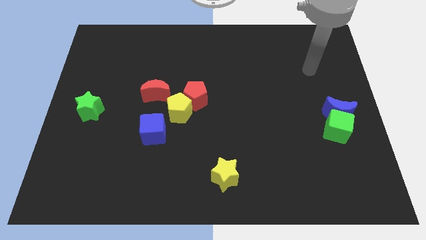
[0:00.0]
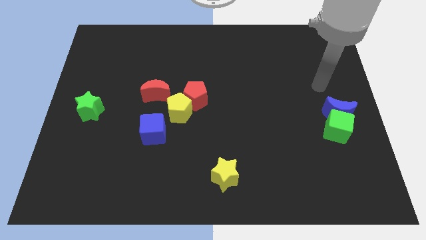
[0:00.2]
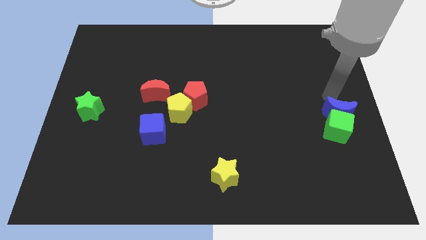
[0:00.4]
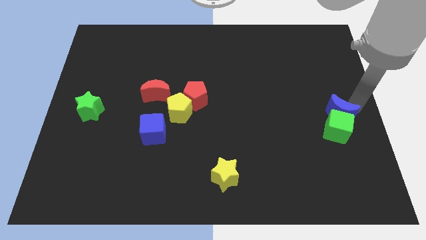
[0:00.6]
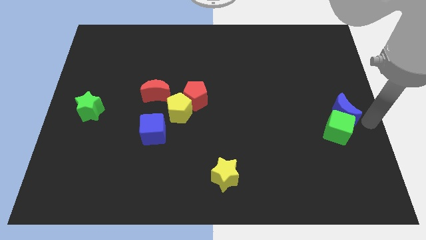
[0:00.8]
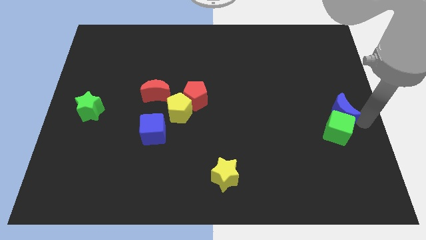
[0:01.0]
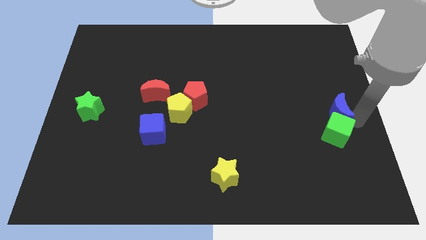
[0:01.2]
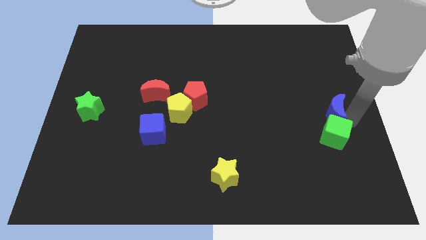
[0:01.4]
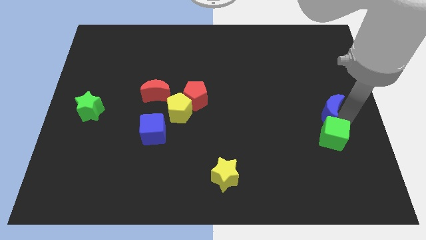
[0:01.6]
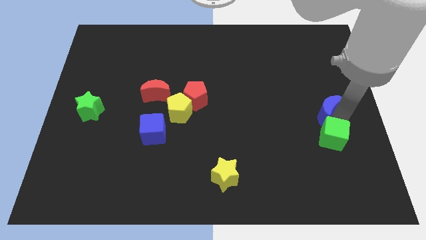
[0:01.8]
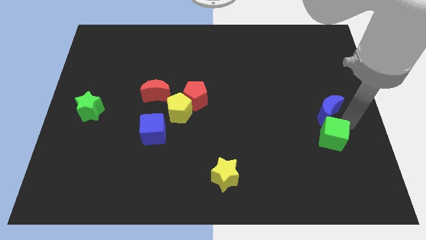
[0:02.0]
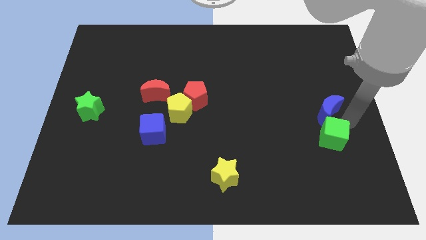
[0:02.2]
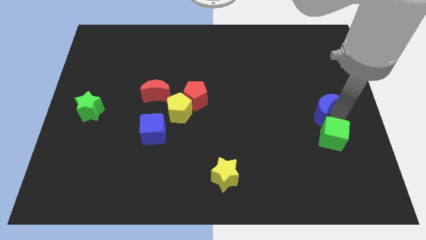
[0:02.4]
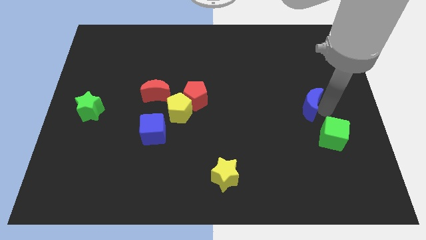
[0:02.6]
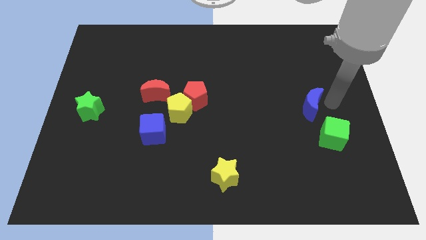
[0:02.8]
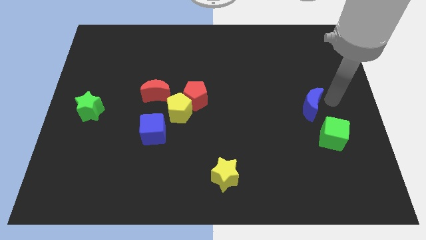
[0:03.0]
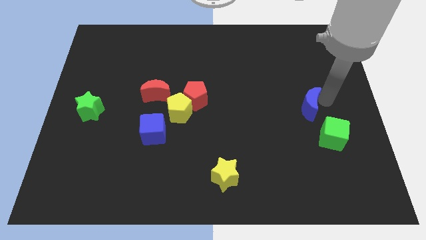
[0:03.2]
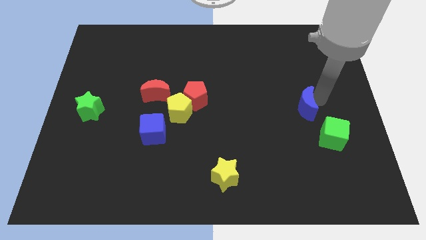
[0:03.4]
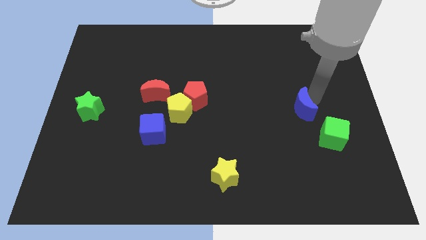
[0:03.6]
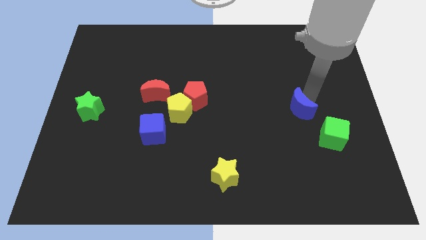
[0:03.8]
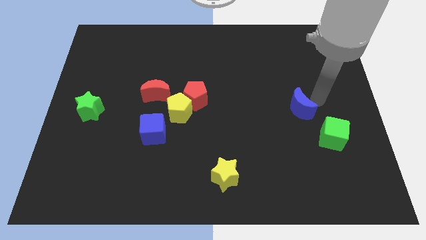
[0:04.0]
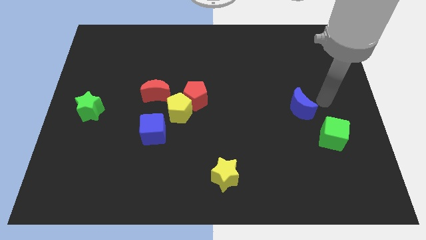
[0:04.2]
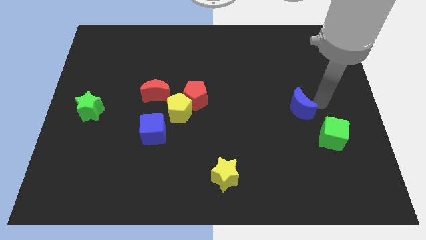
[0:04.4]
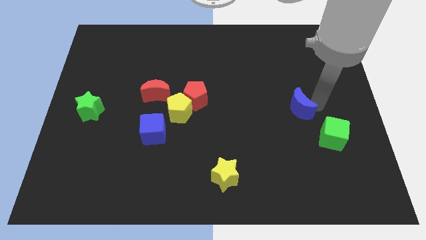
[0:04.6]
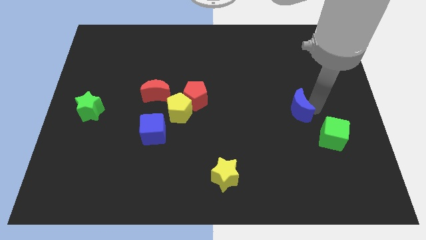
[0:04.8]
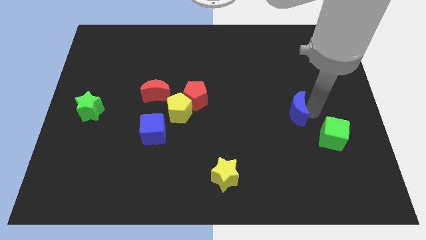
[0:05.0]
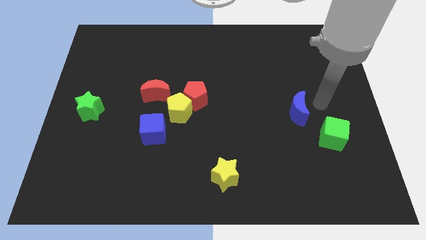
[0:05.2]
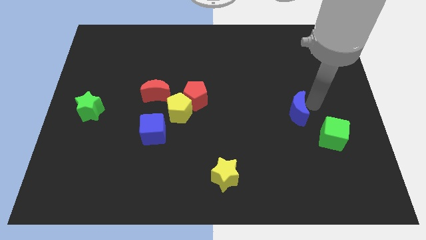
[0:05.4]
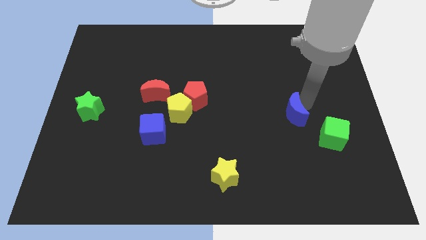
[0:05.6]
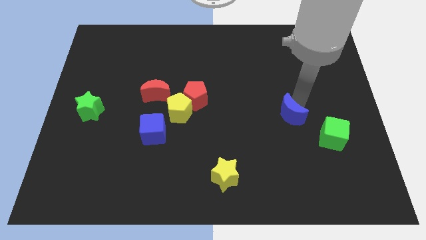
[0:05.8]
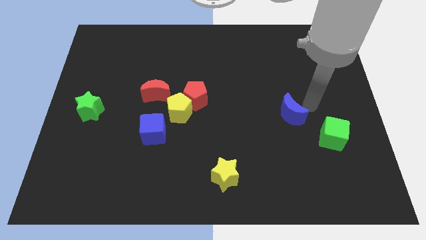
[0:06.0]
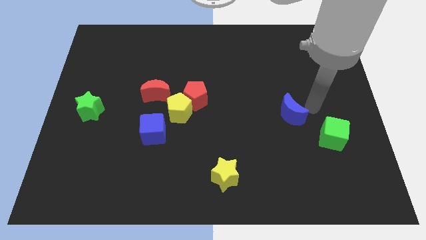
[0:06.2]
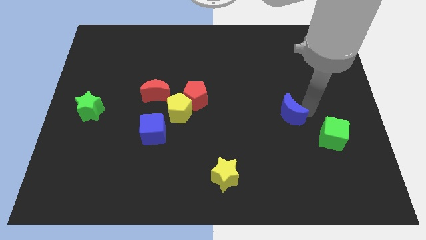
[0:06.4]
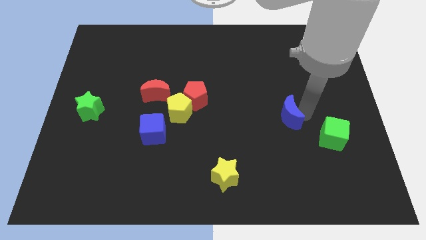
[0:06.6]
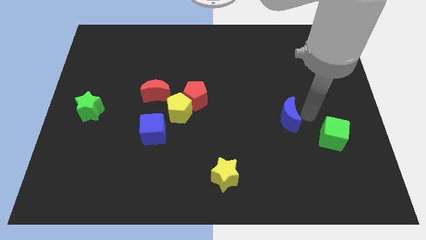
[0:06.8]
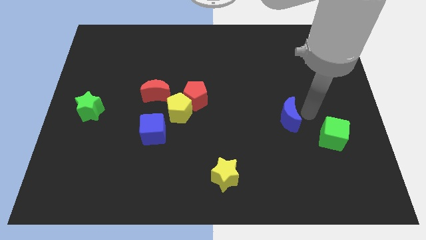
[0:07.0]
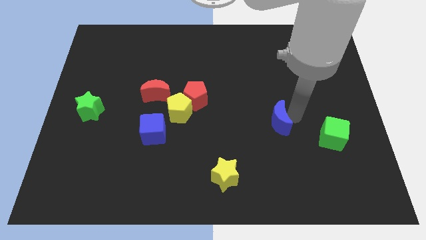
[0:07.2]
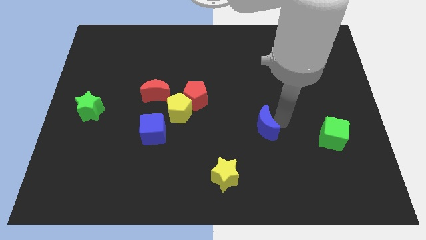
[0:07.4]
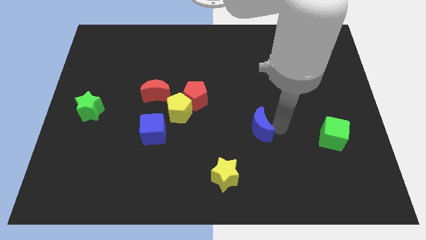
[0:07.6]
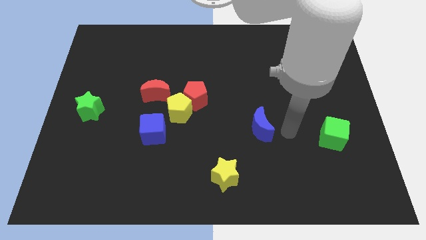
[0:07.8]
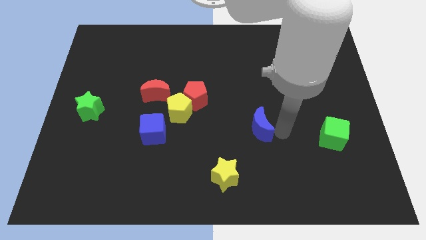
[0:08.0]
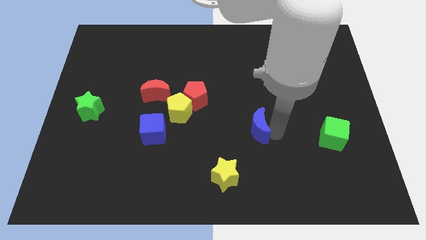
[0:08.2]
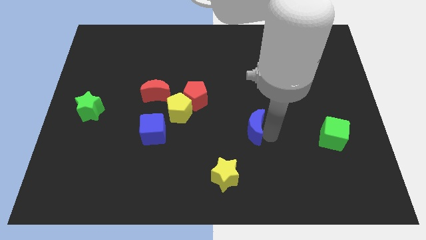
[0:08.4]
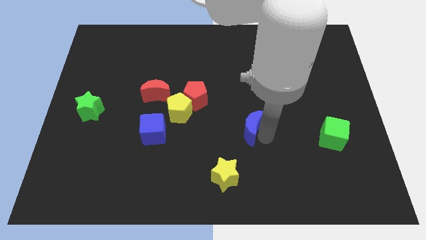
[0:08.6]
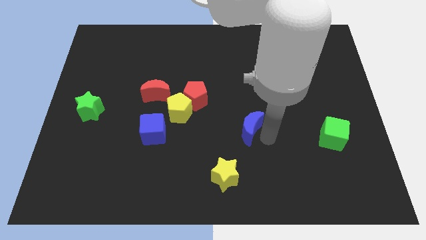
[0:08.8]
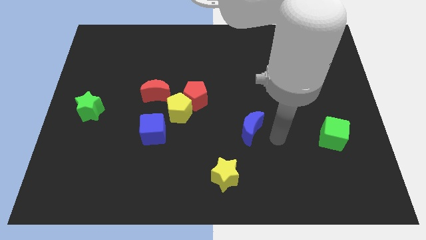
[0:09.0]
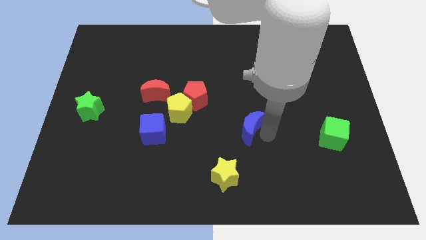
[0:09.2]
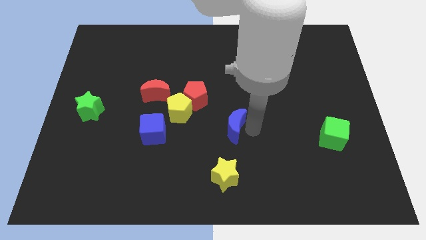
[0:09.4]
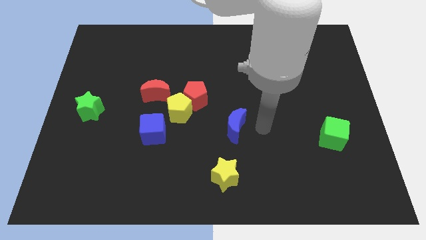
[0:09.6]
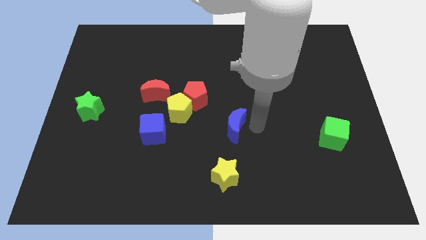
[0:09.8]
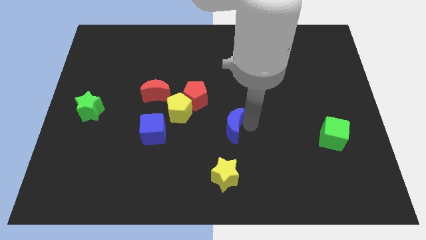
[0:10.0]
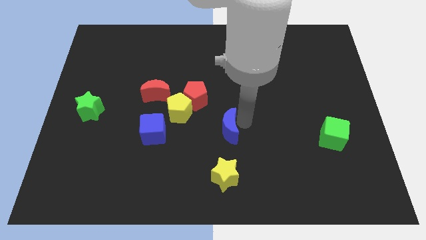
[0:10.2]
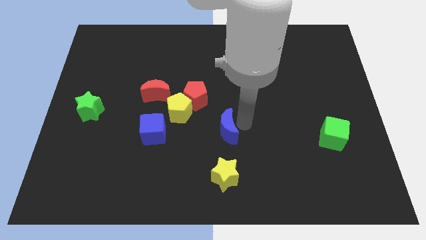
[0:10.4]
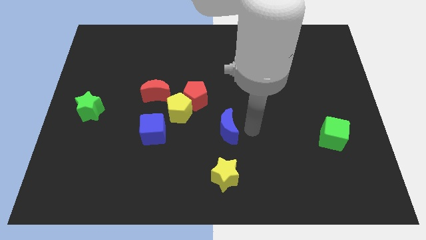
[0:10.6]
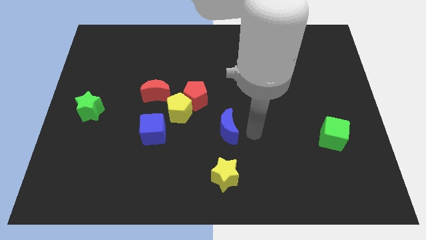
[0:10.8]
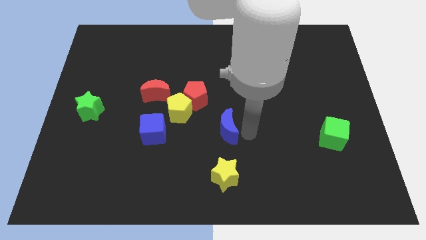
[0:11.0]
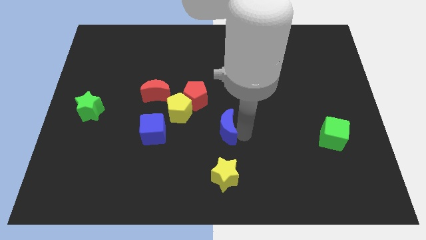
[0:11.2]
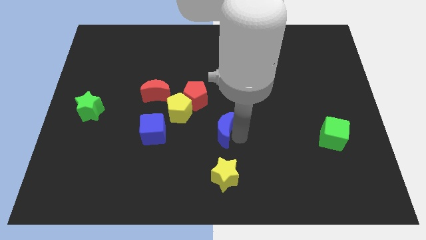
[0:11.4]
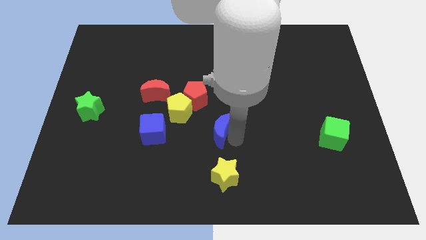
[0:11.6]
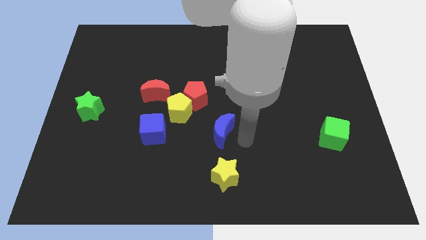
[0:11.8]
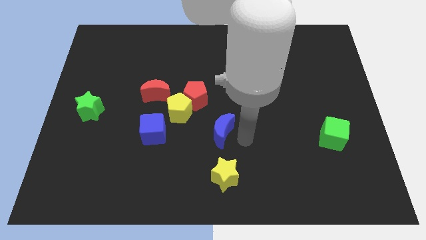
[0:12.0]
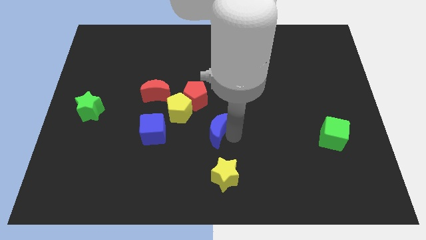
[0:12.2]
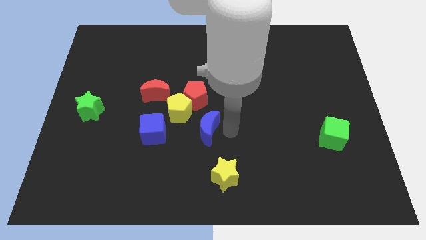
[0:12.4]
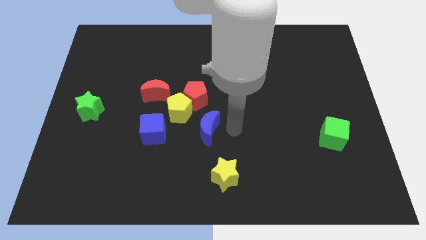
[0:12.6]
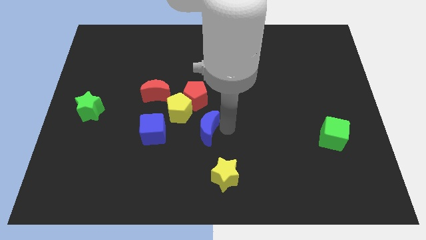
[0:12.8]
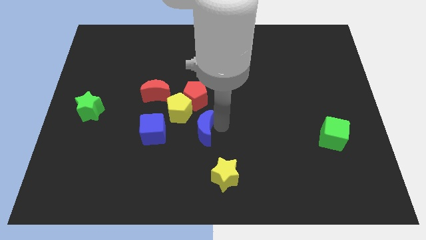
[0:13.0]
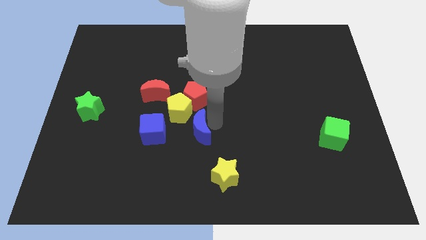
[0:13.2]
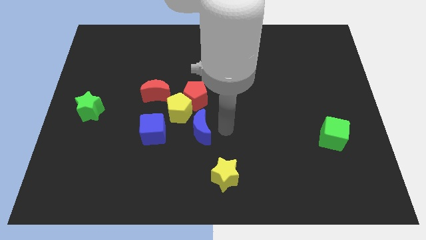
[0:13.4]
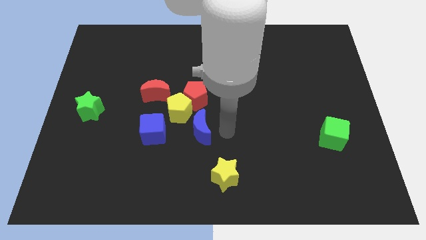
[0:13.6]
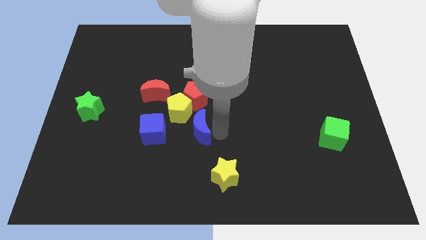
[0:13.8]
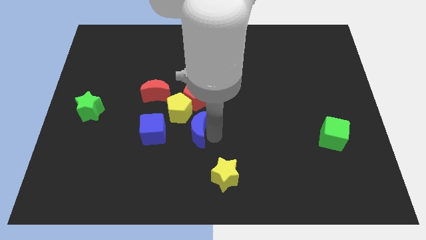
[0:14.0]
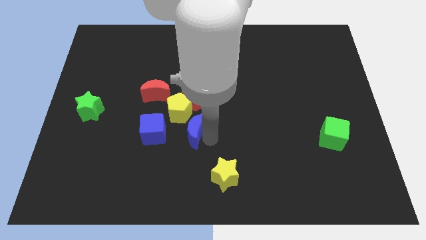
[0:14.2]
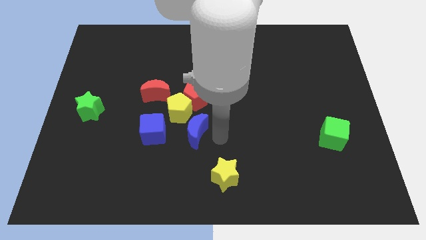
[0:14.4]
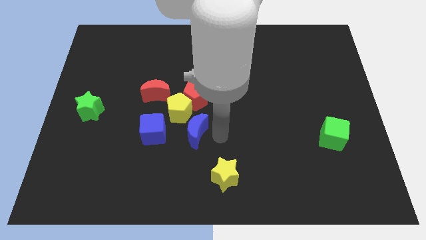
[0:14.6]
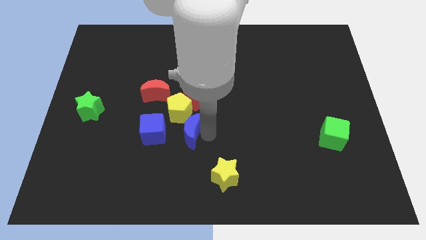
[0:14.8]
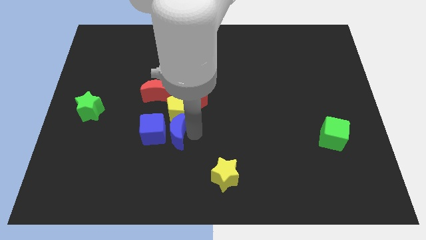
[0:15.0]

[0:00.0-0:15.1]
slide the blue moon next to the blue cube
